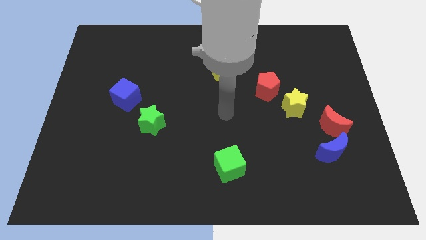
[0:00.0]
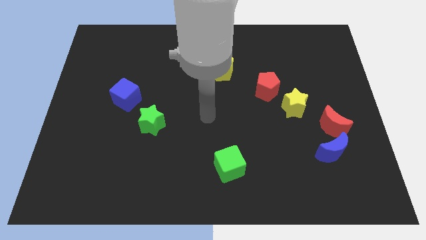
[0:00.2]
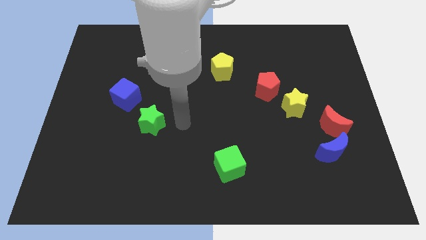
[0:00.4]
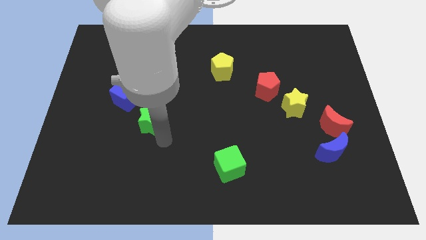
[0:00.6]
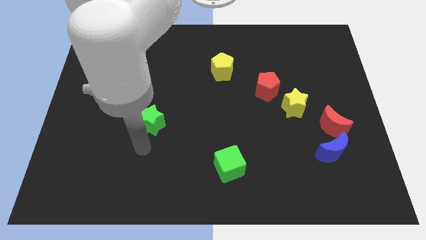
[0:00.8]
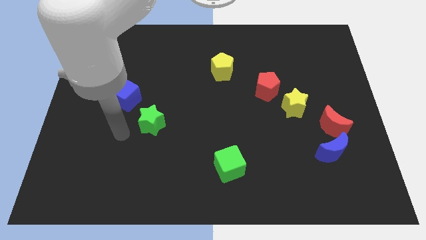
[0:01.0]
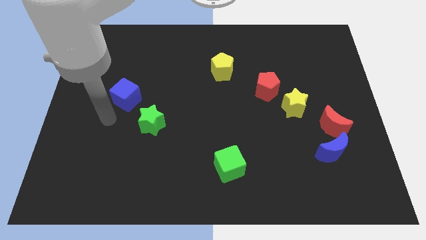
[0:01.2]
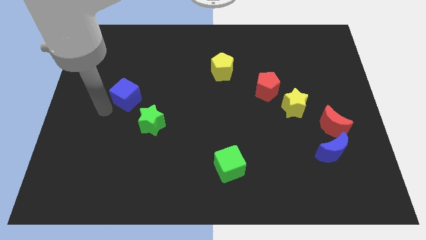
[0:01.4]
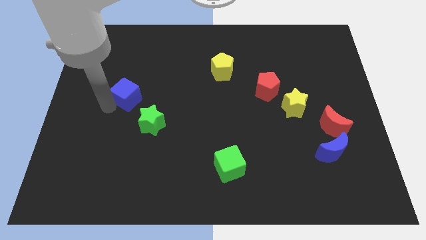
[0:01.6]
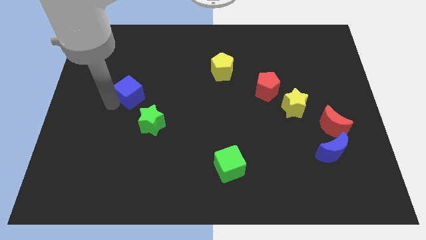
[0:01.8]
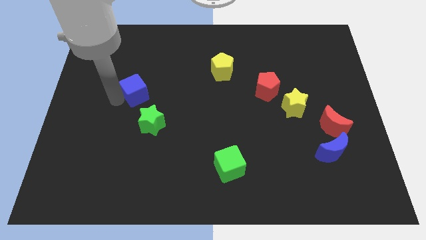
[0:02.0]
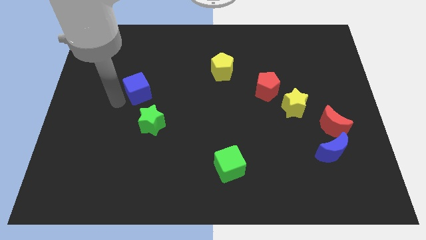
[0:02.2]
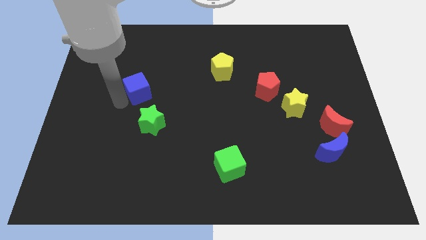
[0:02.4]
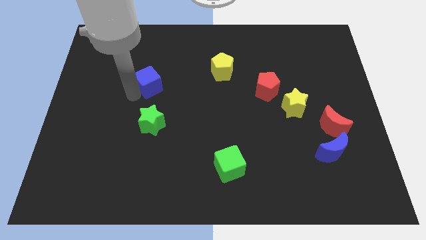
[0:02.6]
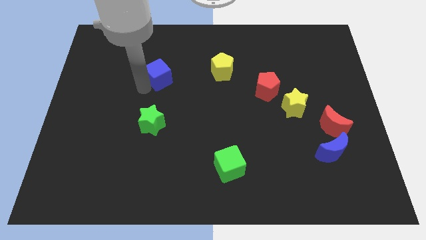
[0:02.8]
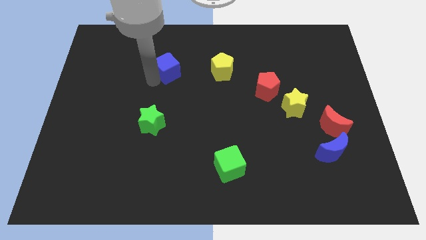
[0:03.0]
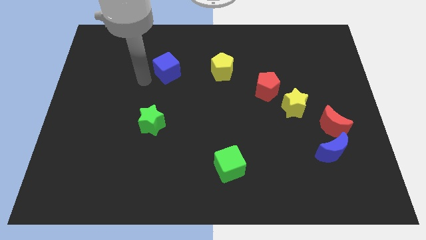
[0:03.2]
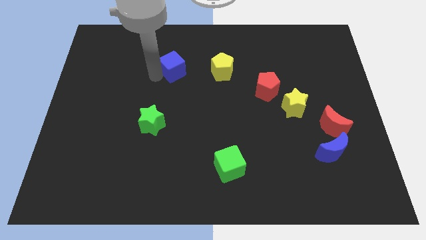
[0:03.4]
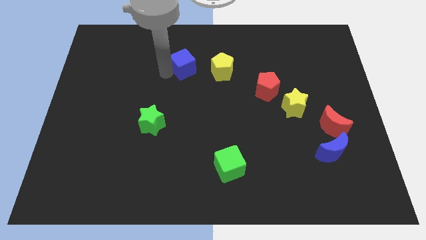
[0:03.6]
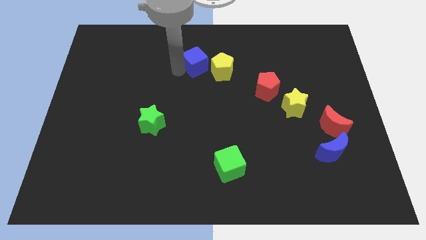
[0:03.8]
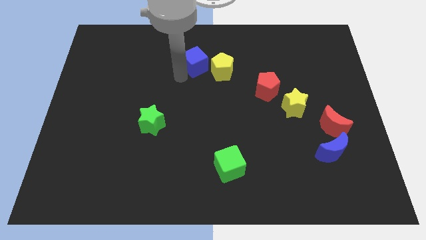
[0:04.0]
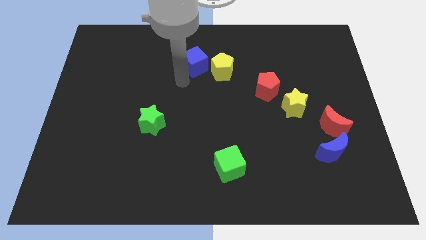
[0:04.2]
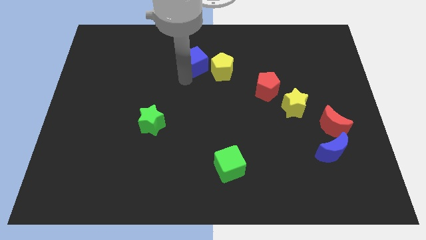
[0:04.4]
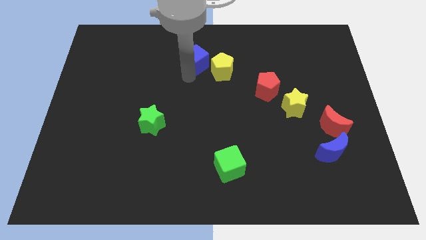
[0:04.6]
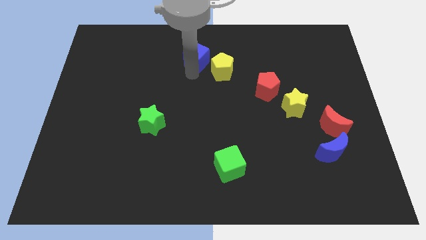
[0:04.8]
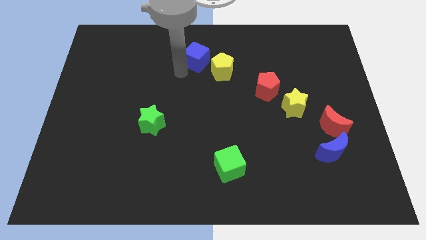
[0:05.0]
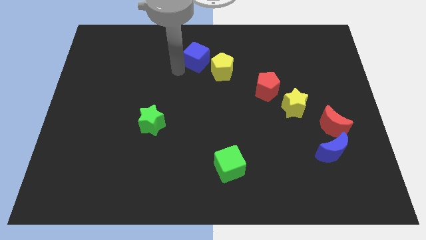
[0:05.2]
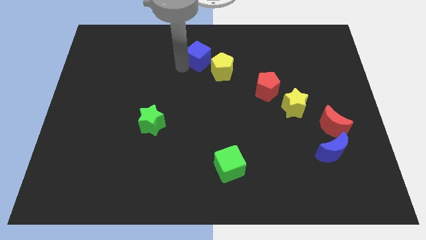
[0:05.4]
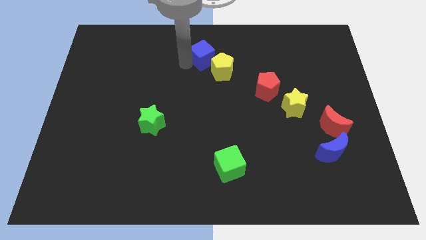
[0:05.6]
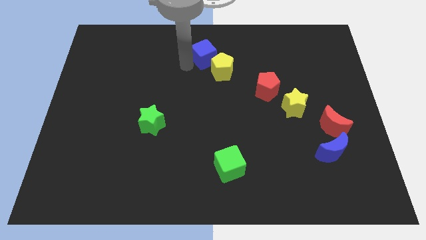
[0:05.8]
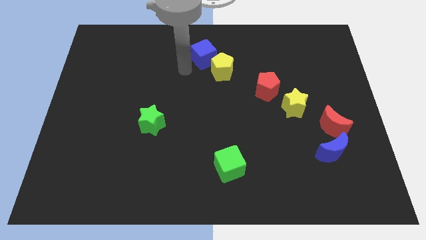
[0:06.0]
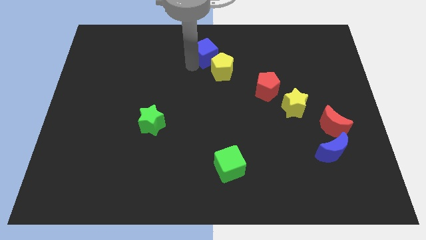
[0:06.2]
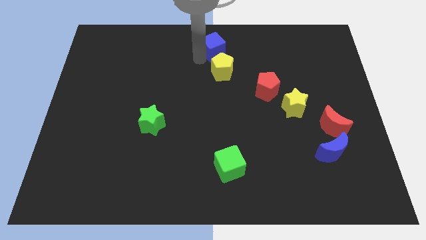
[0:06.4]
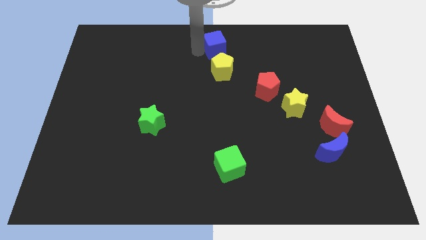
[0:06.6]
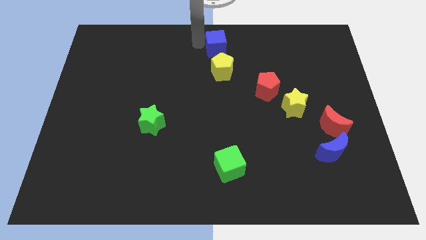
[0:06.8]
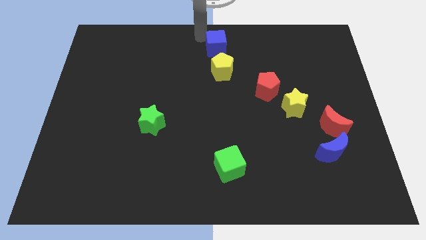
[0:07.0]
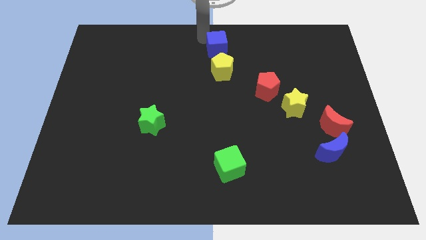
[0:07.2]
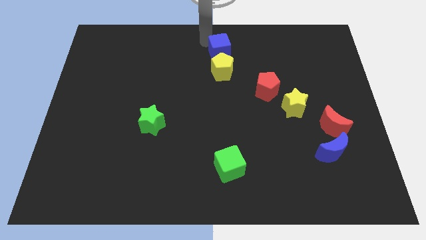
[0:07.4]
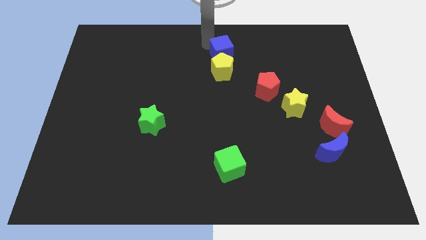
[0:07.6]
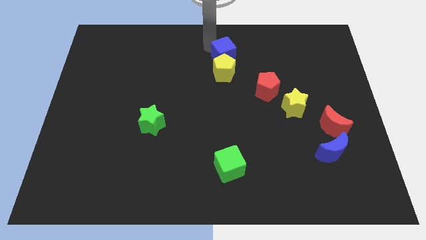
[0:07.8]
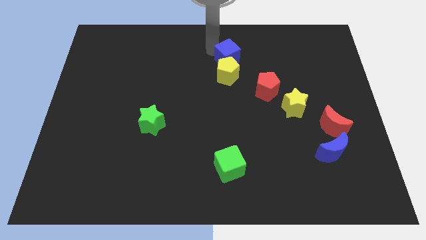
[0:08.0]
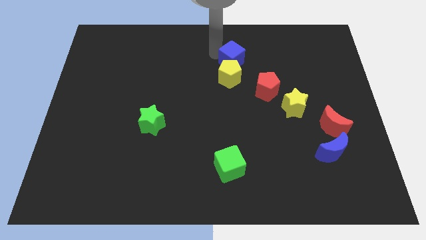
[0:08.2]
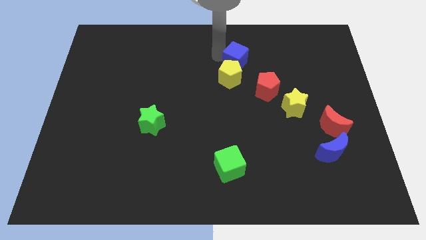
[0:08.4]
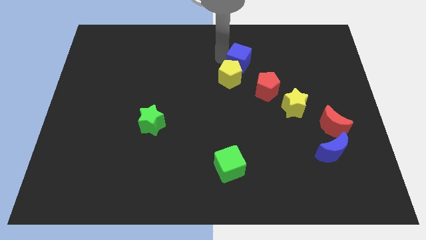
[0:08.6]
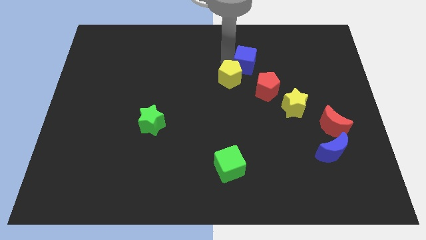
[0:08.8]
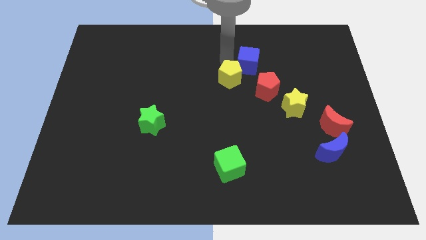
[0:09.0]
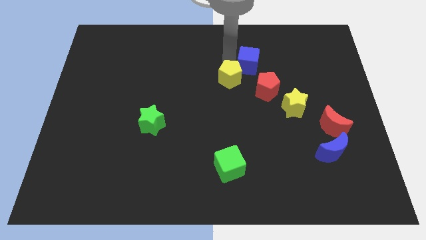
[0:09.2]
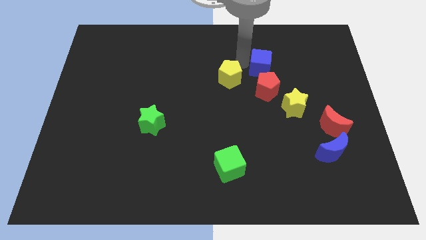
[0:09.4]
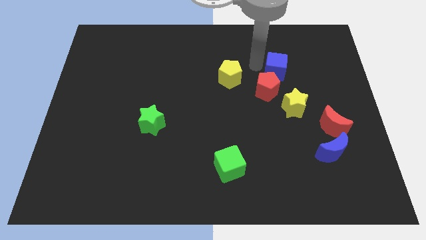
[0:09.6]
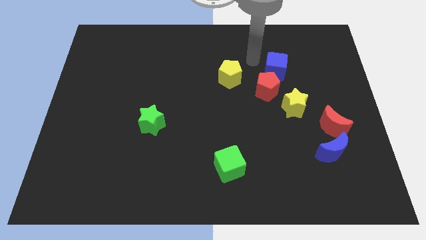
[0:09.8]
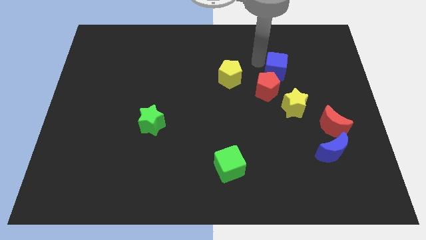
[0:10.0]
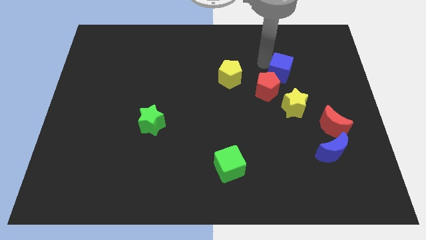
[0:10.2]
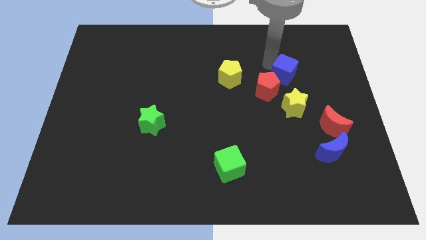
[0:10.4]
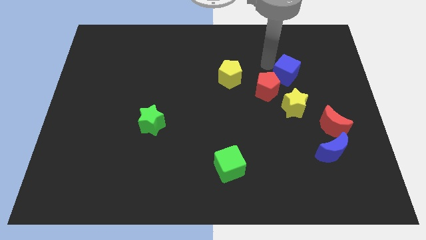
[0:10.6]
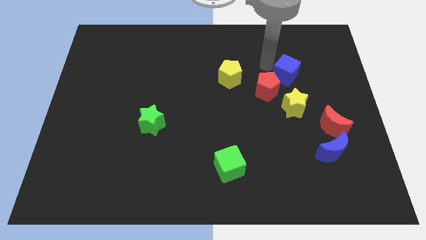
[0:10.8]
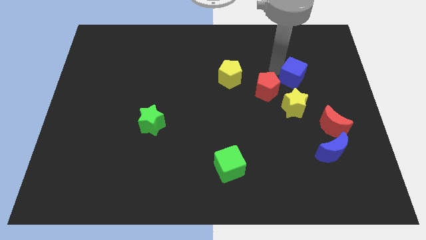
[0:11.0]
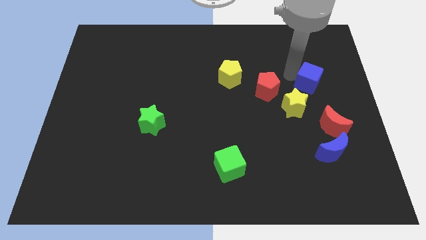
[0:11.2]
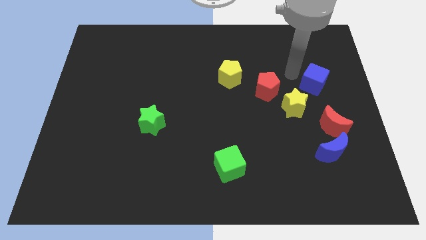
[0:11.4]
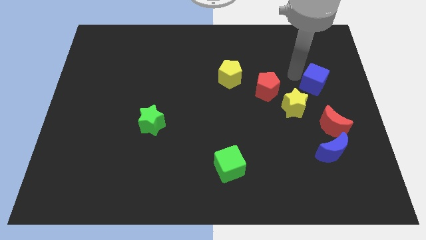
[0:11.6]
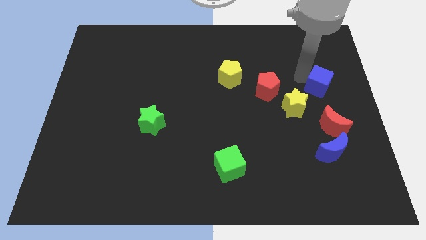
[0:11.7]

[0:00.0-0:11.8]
move the blue cube to the right side
